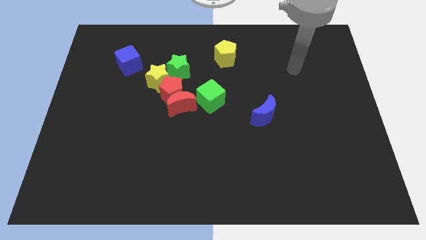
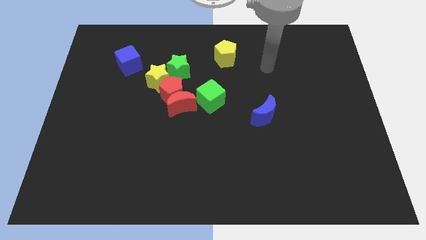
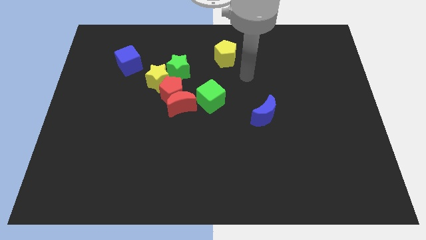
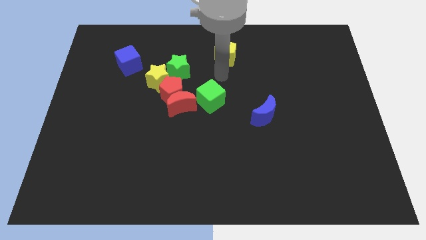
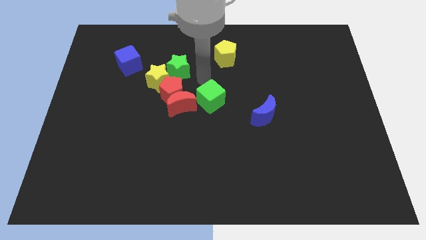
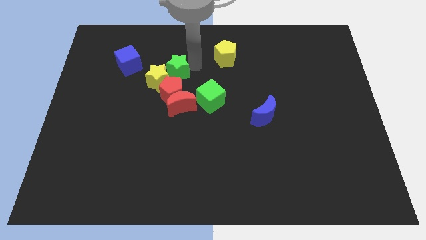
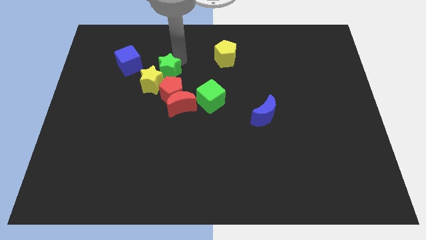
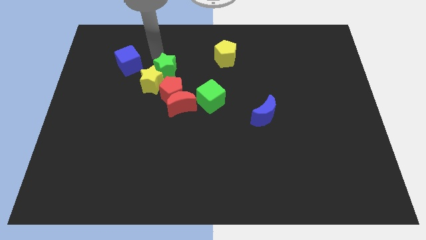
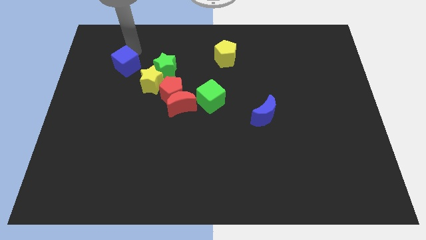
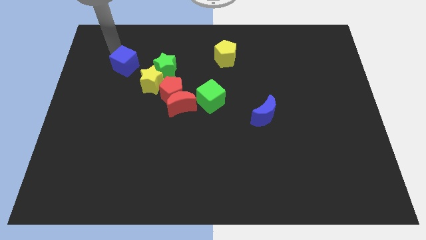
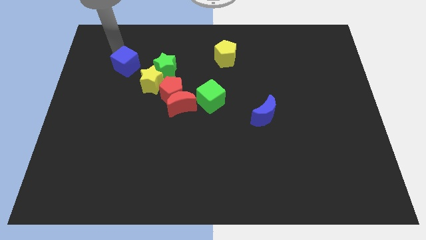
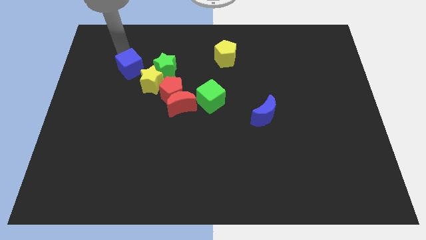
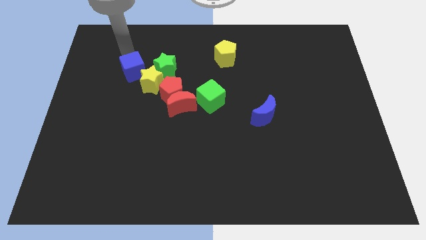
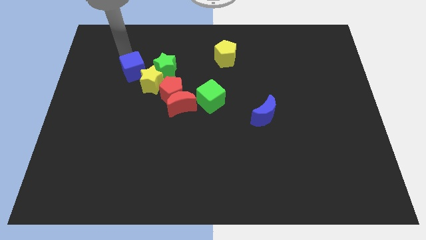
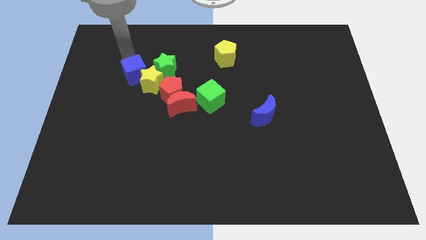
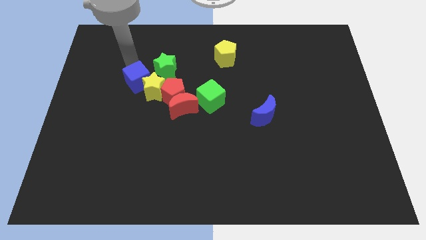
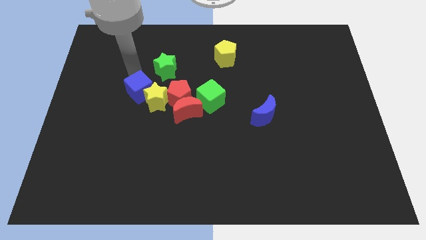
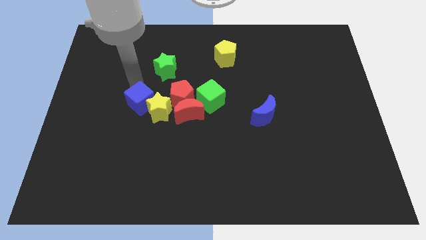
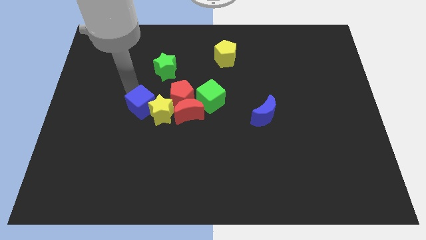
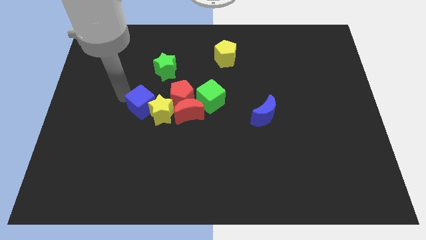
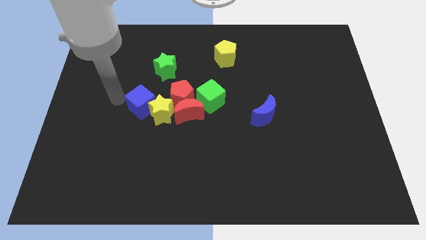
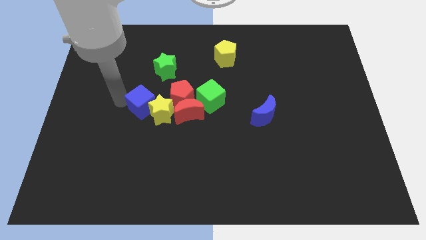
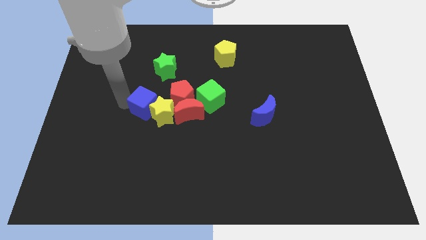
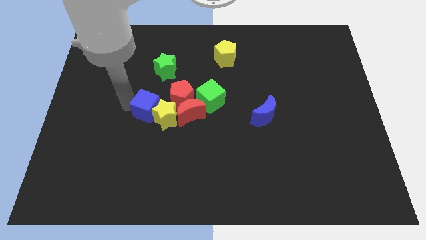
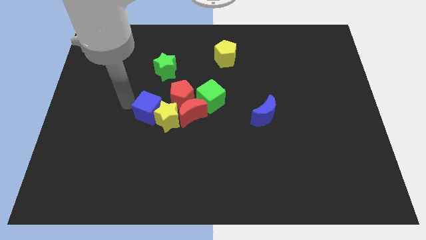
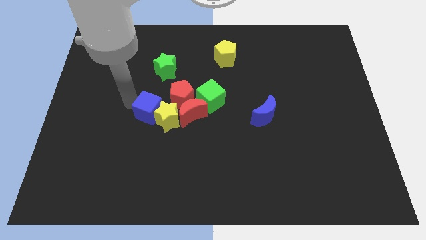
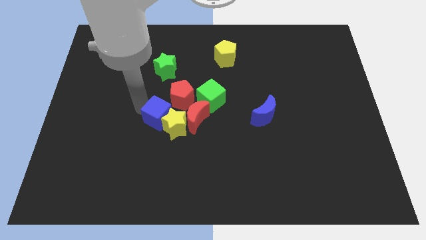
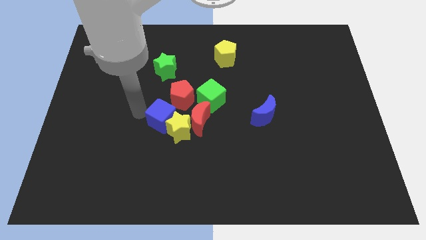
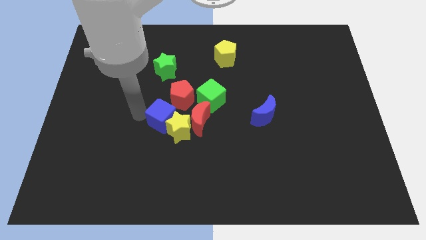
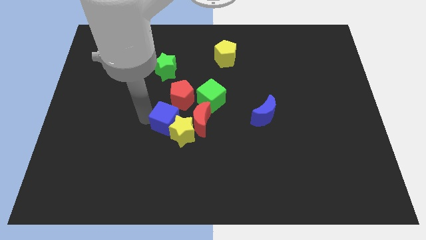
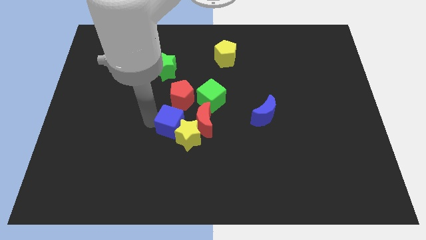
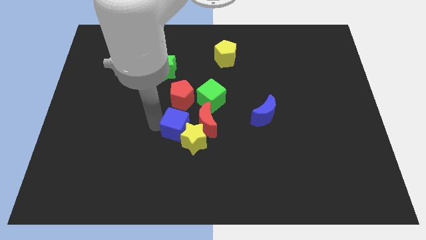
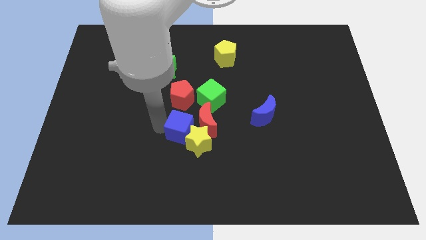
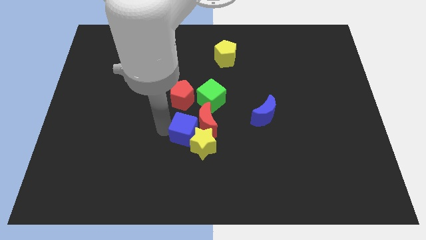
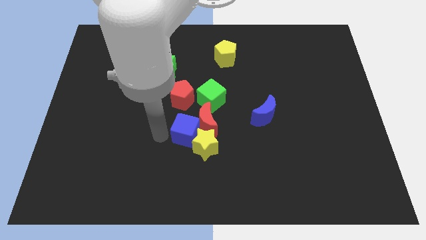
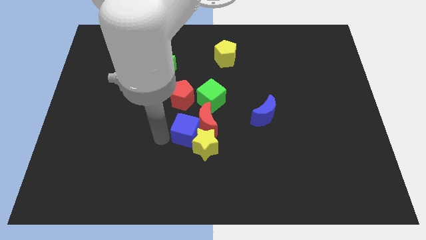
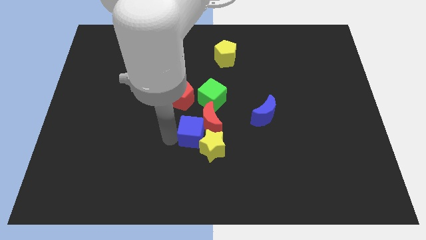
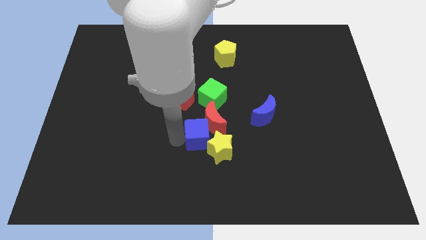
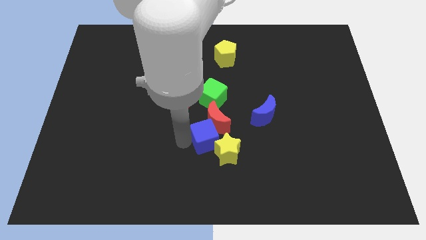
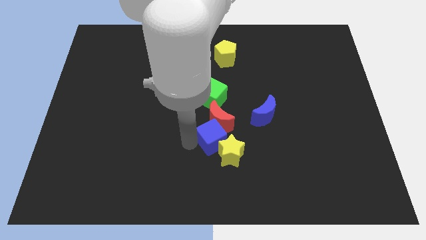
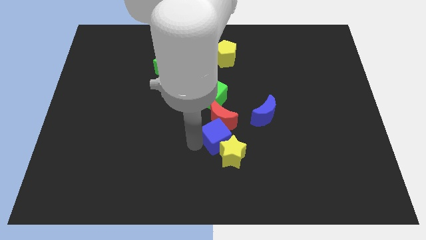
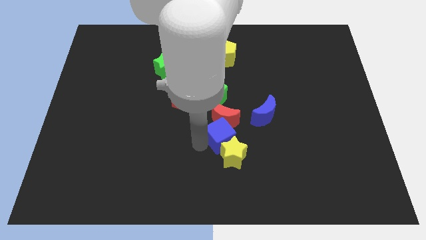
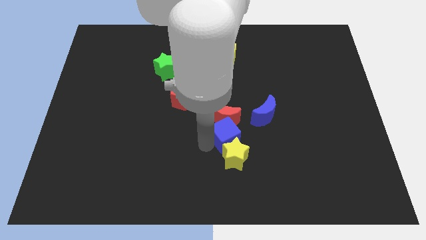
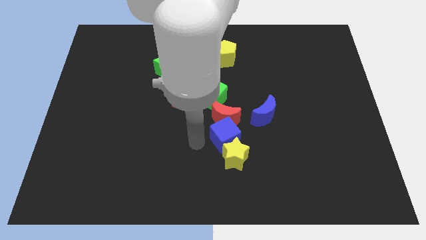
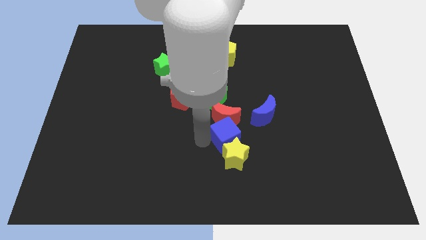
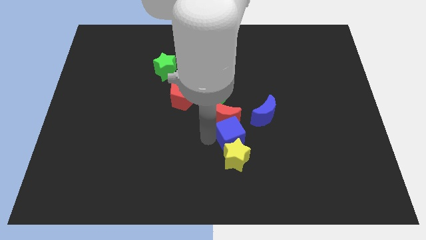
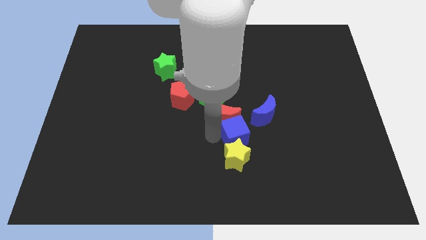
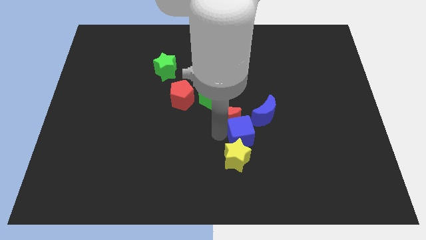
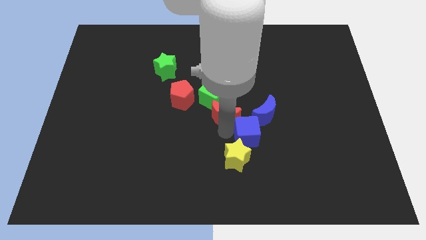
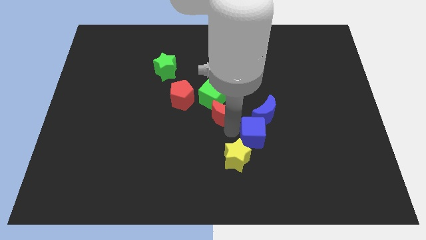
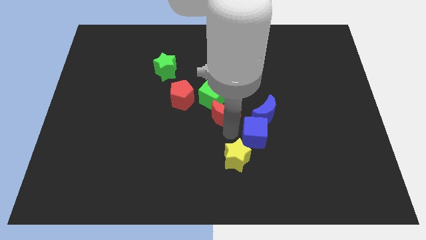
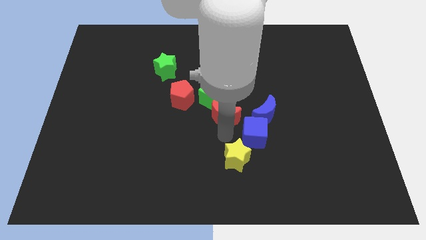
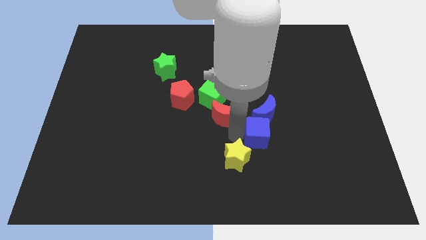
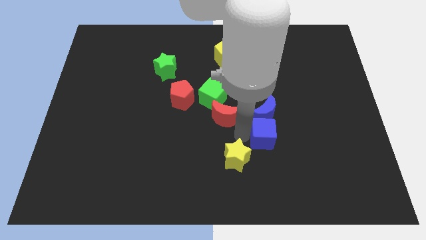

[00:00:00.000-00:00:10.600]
put the blue cube to the bottom right side of the blue moon
